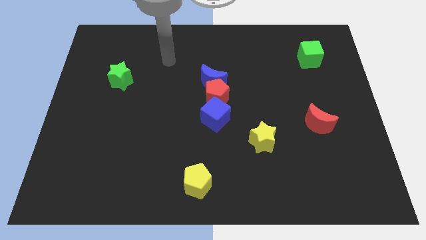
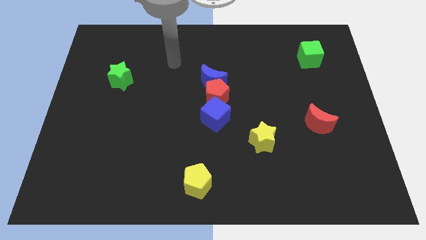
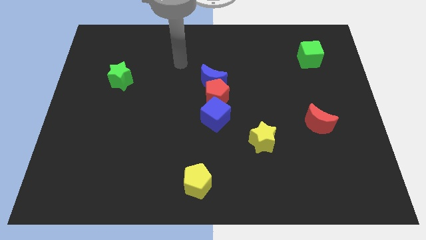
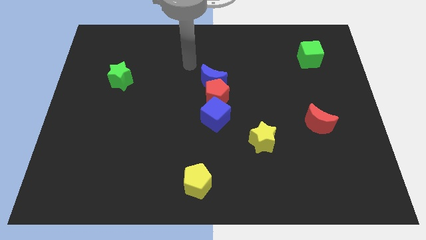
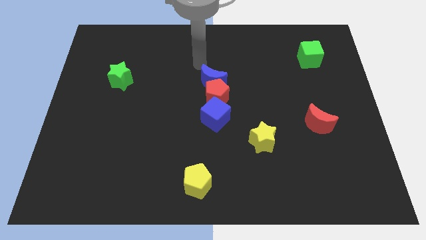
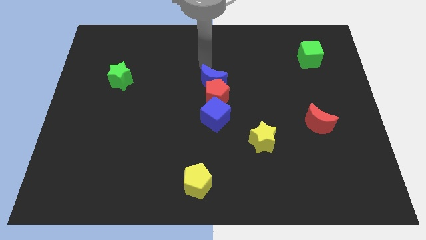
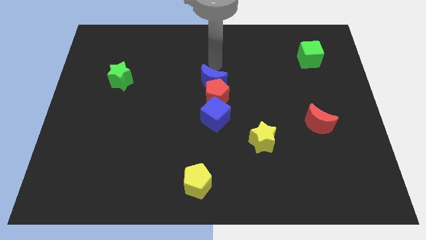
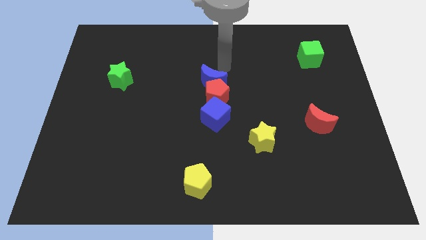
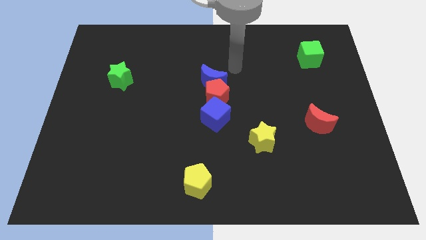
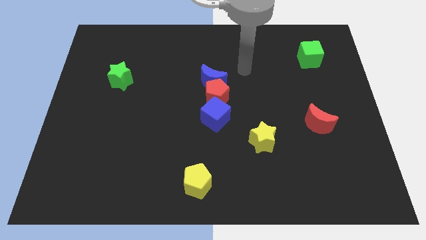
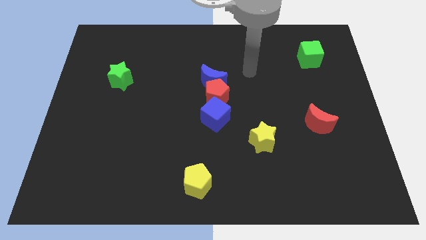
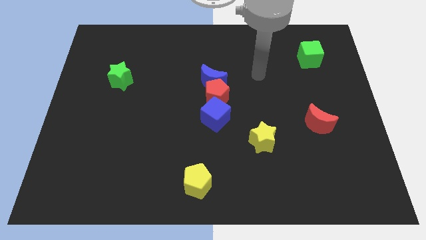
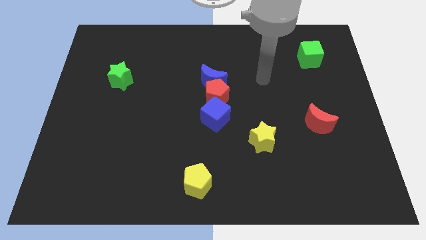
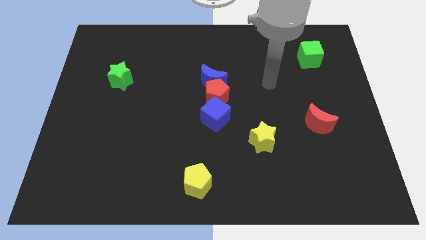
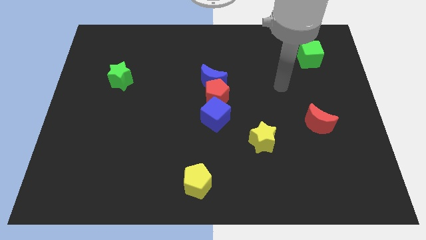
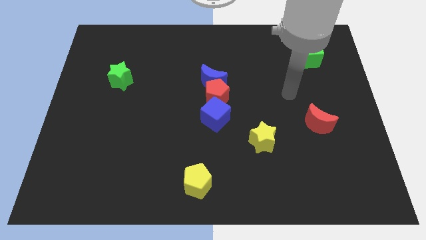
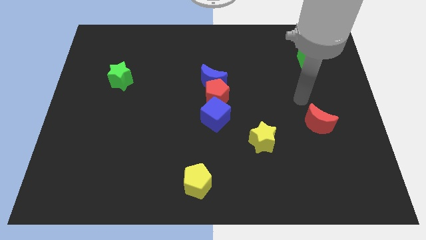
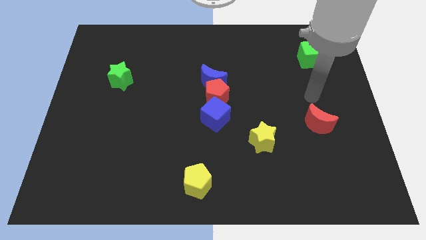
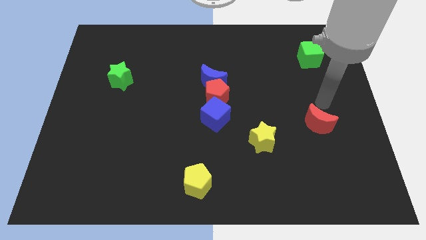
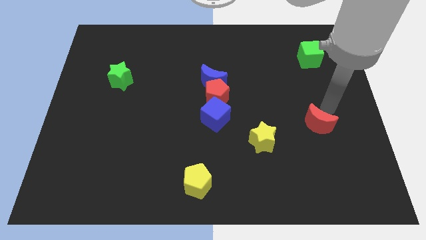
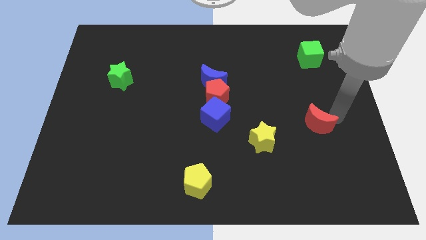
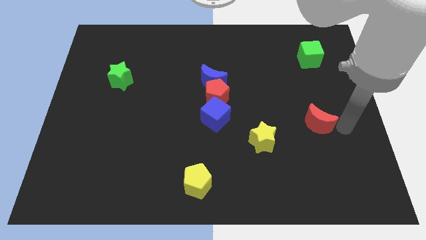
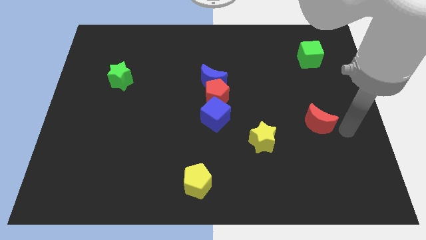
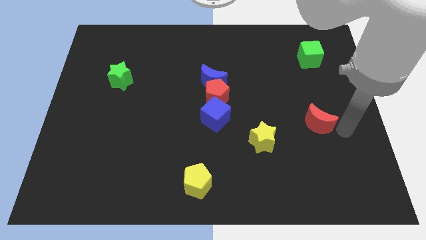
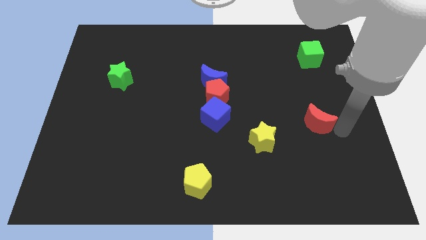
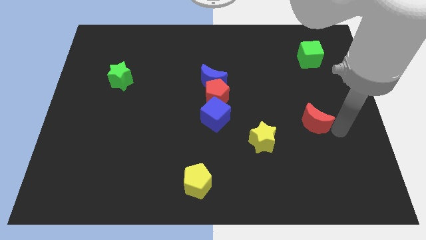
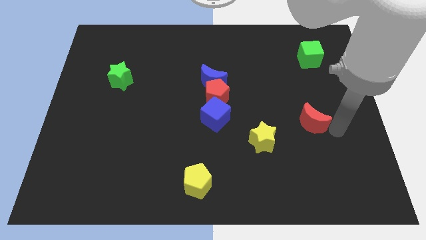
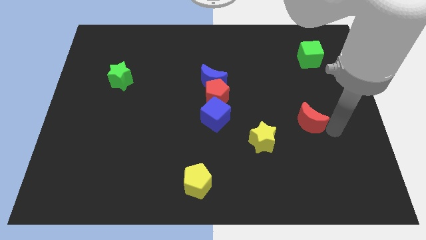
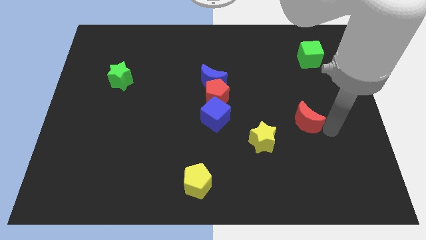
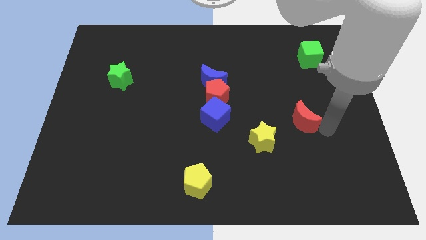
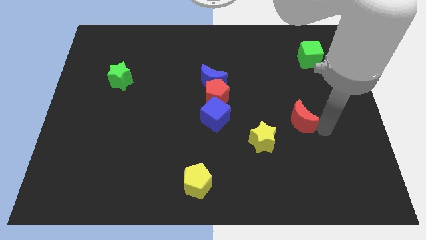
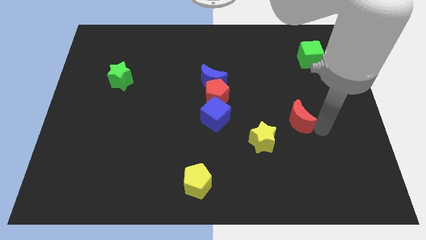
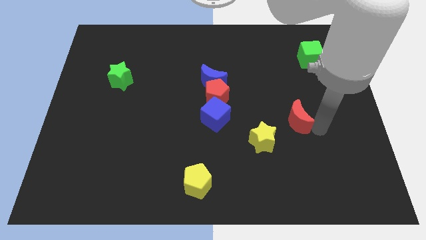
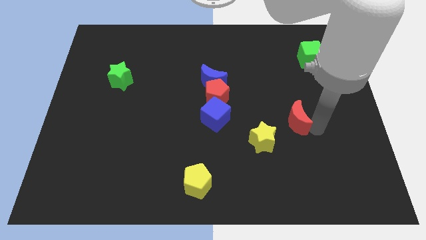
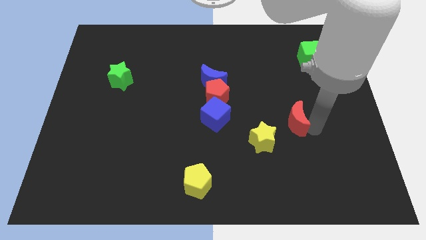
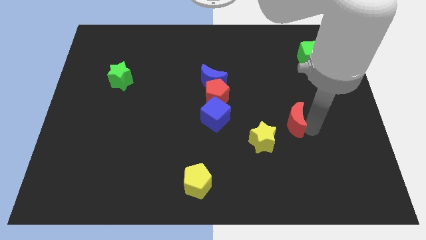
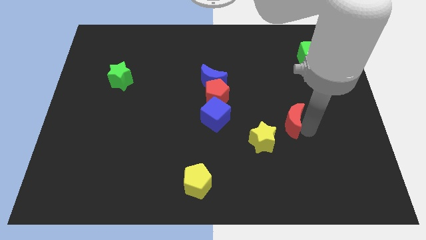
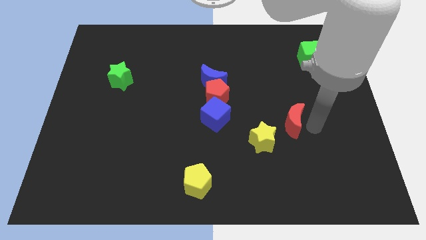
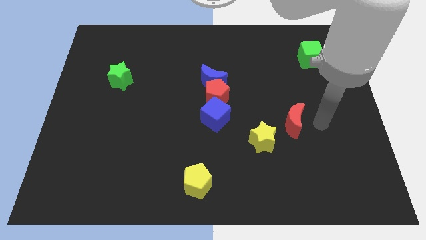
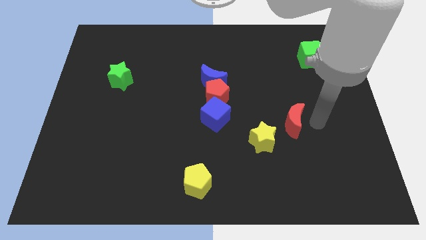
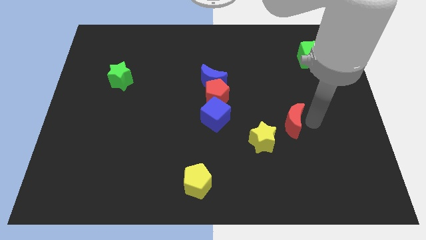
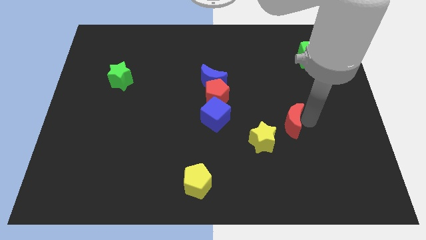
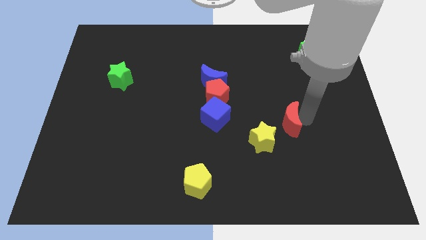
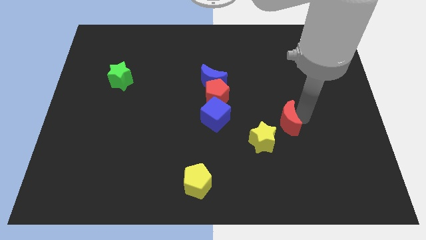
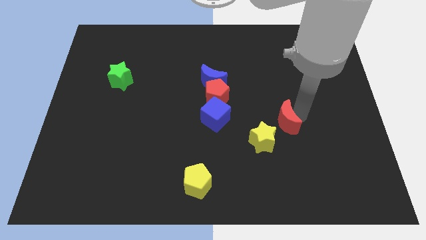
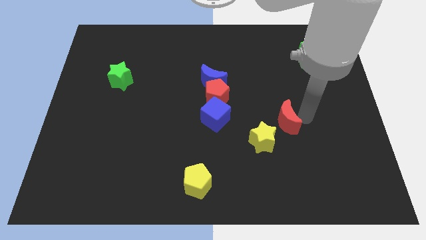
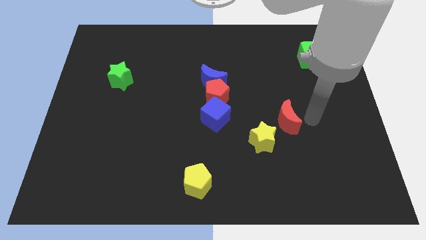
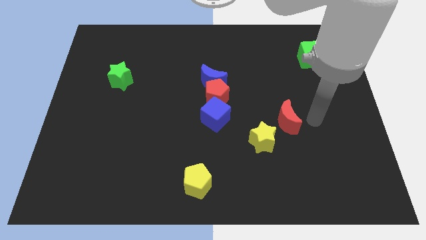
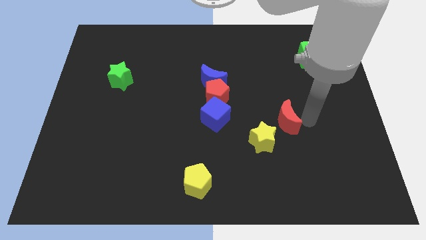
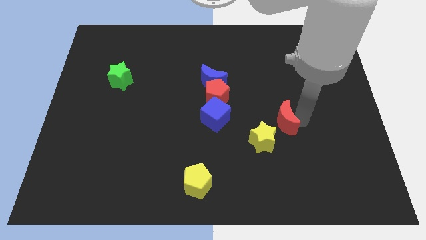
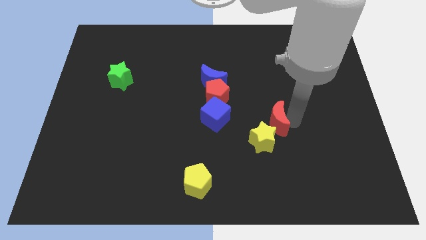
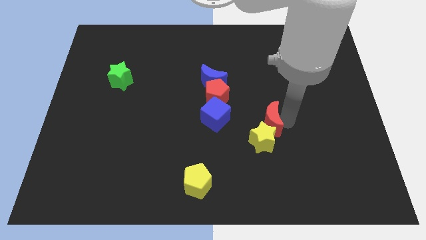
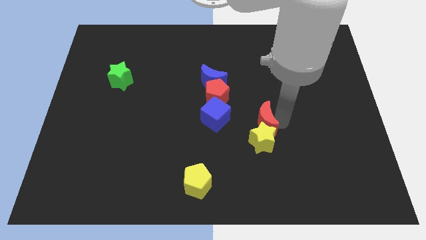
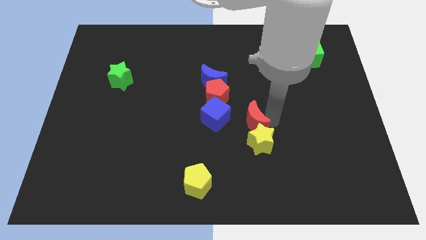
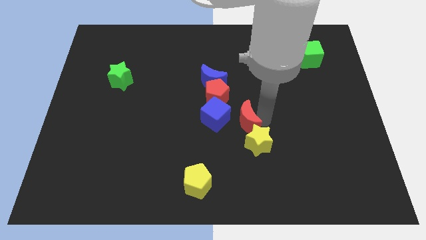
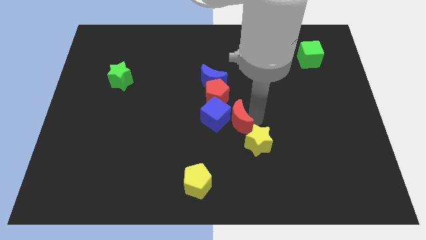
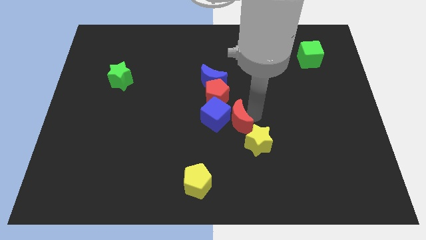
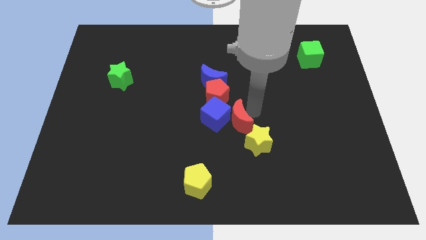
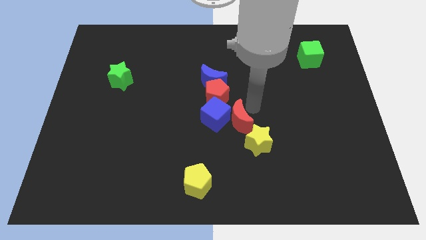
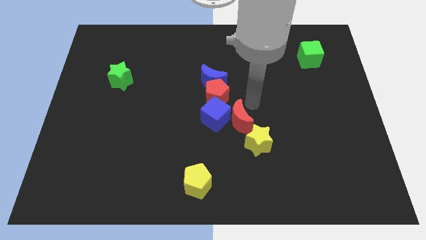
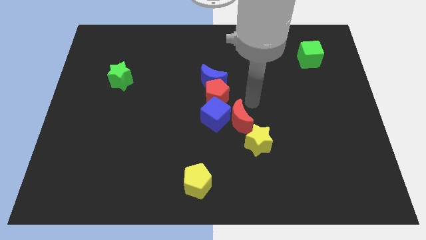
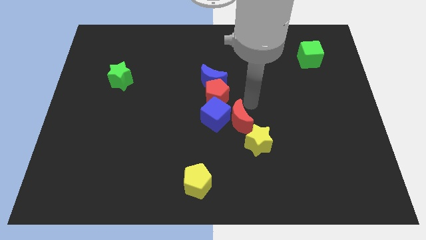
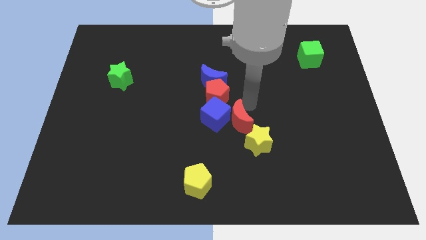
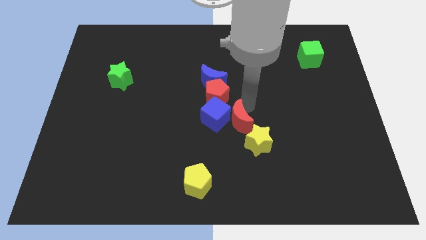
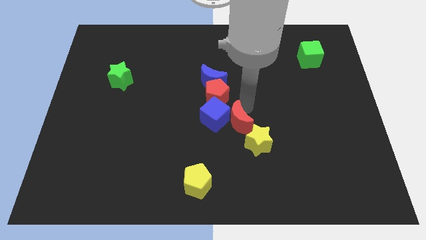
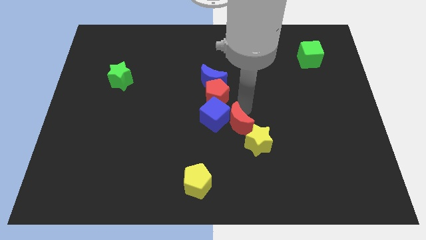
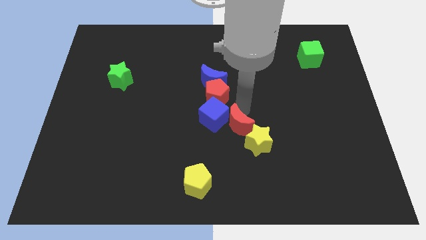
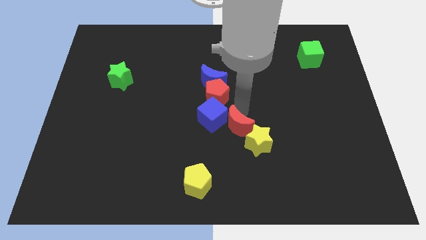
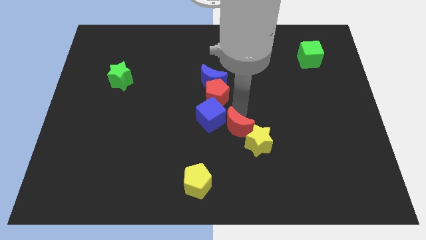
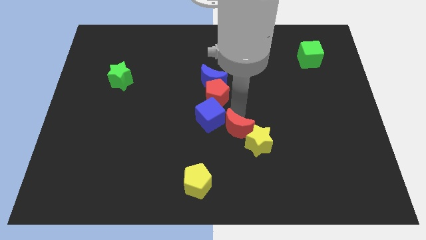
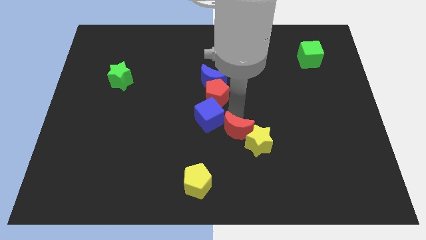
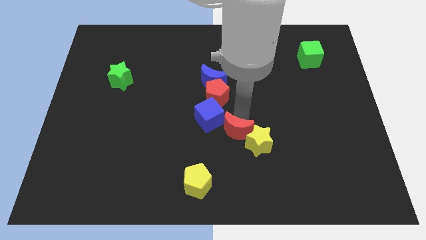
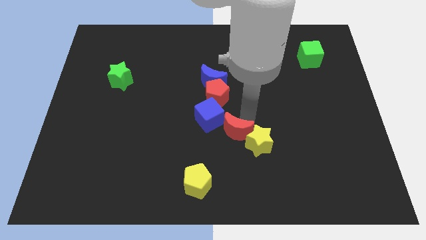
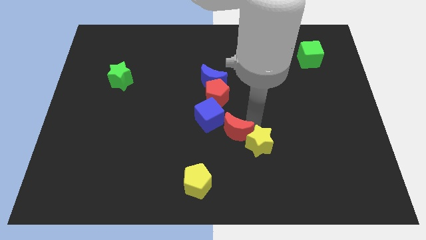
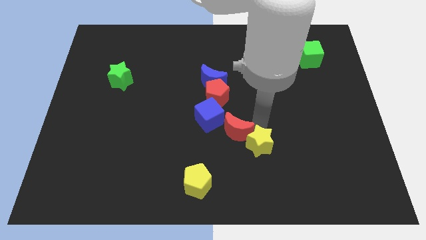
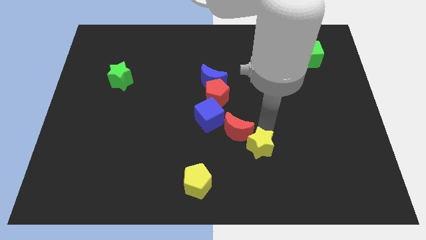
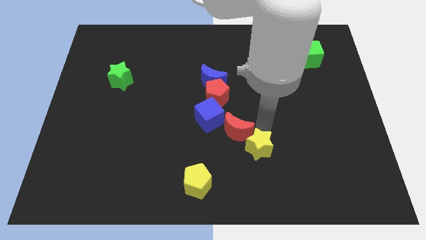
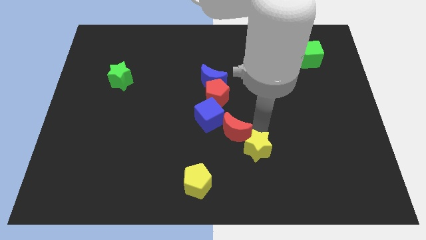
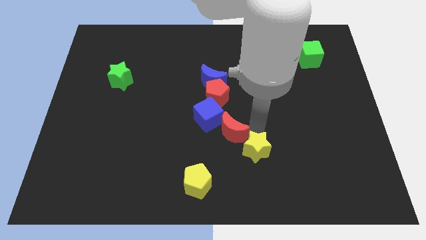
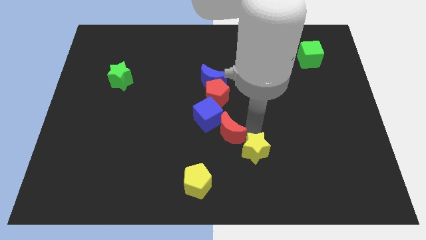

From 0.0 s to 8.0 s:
slide the red moon to the left

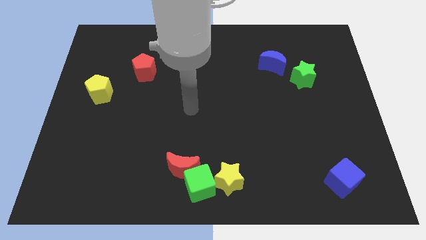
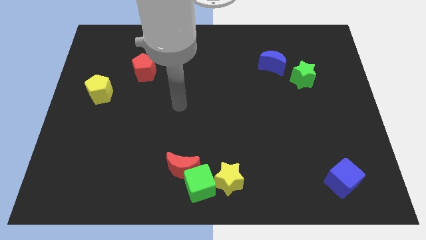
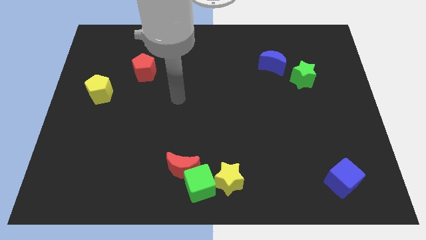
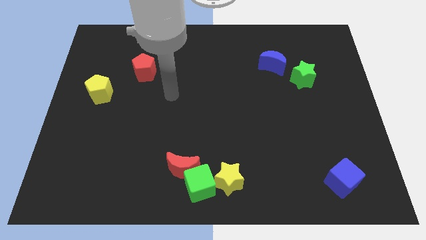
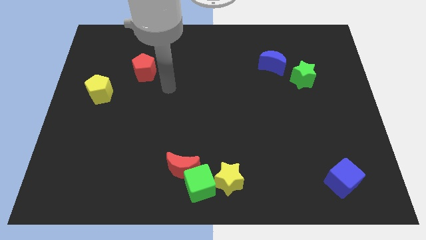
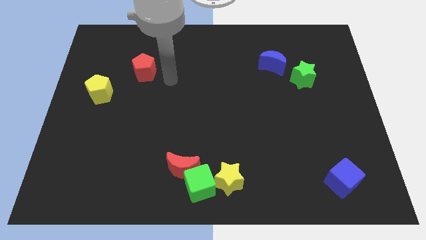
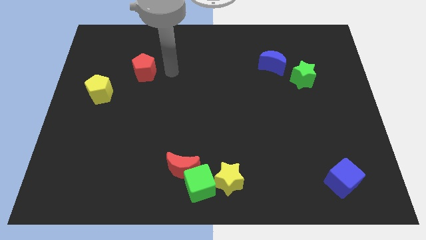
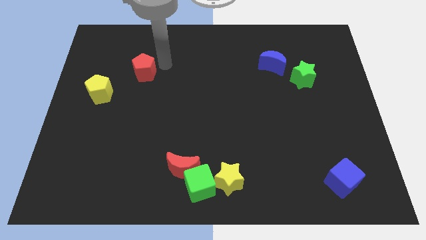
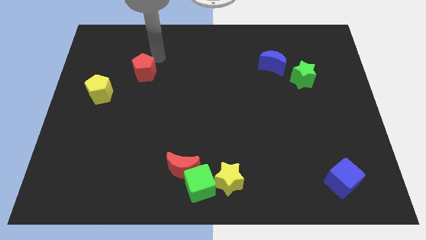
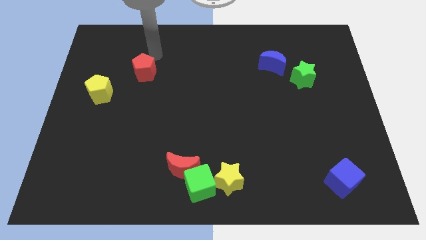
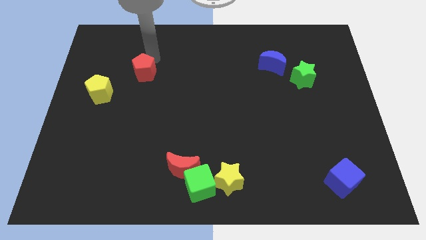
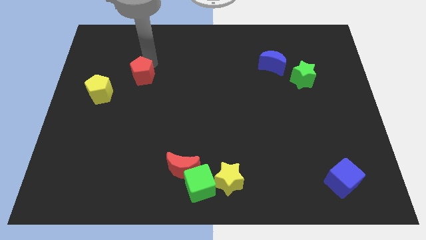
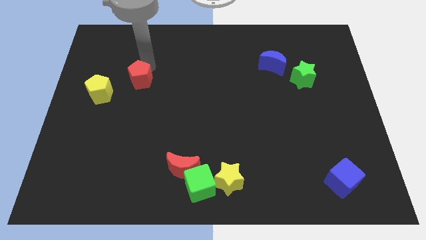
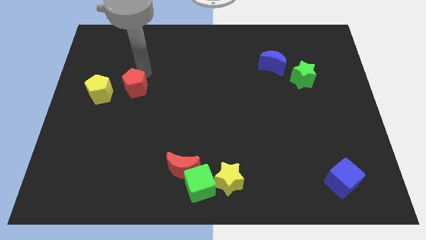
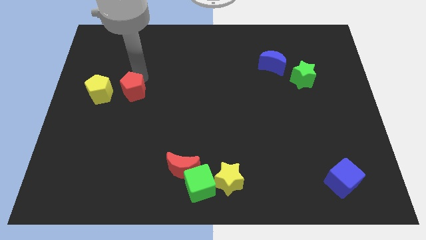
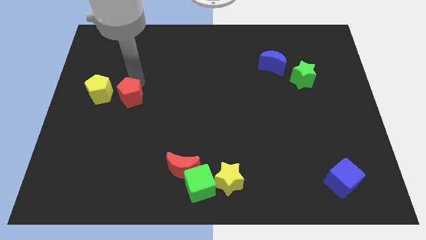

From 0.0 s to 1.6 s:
slightly slide the red pentagon down
